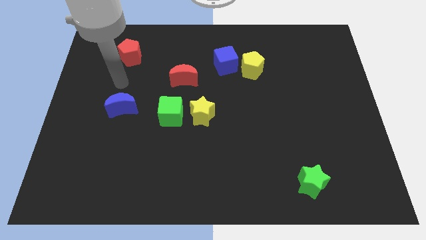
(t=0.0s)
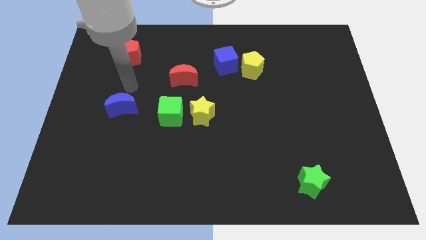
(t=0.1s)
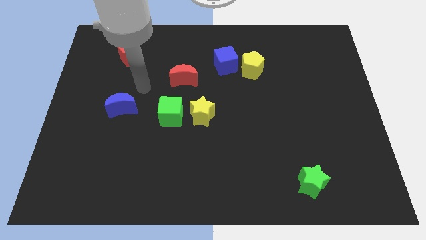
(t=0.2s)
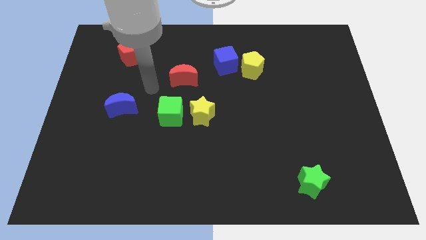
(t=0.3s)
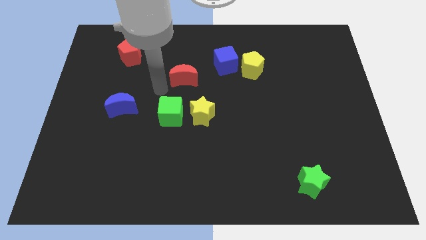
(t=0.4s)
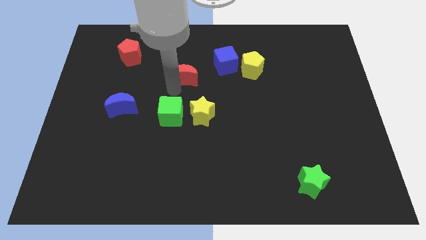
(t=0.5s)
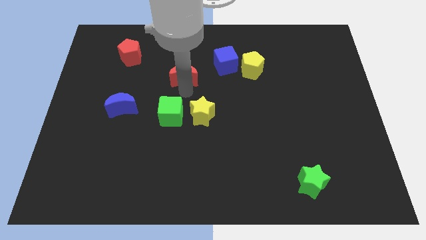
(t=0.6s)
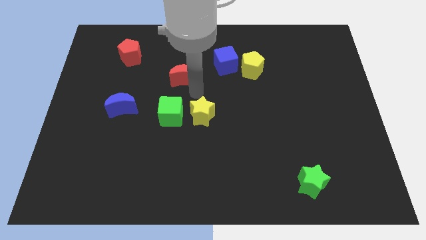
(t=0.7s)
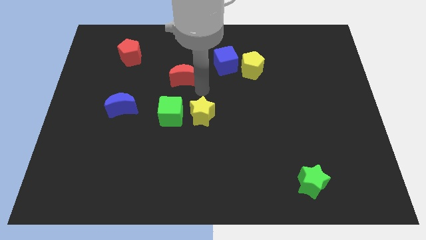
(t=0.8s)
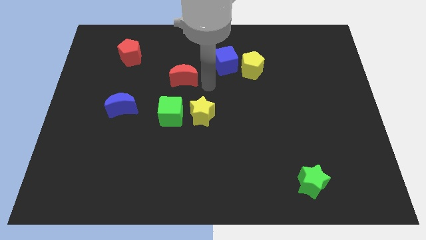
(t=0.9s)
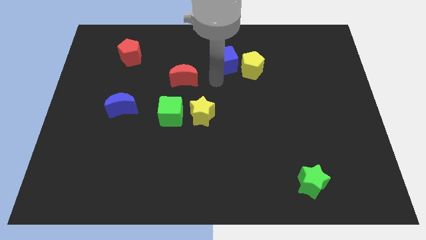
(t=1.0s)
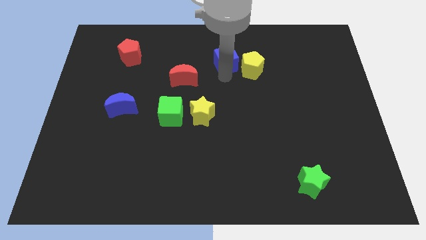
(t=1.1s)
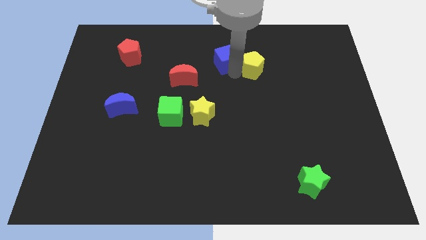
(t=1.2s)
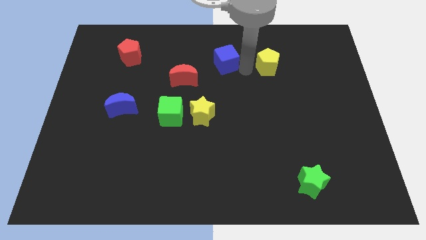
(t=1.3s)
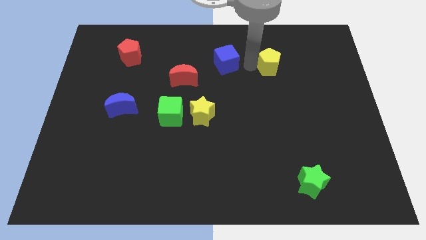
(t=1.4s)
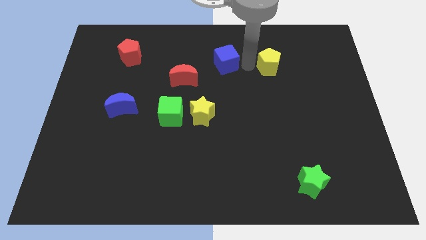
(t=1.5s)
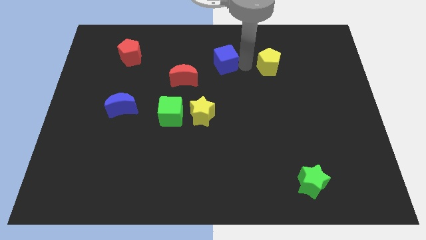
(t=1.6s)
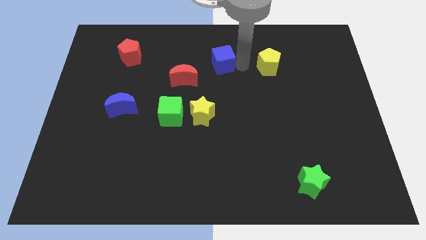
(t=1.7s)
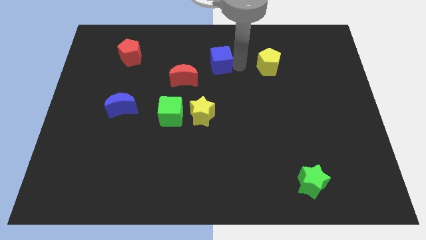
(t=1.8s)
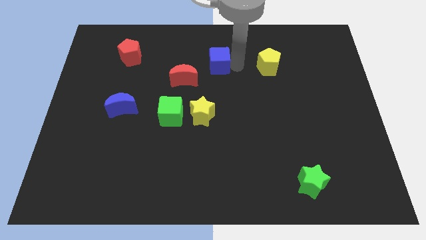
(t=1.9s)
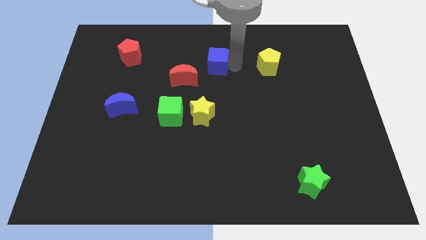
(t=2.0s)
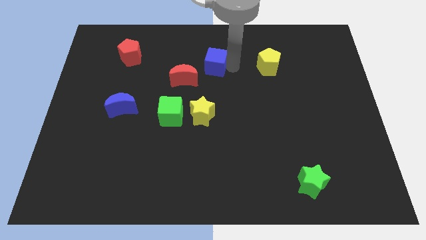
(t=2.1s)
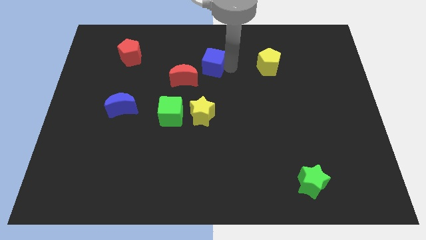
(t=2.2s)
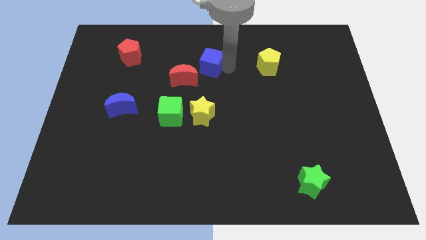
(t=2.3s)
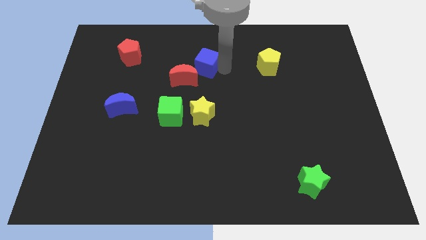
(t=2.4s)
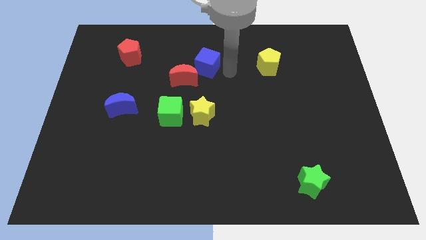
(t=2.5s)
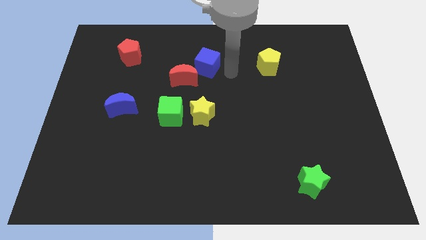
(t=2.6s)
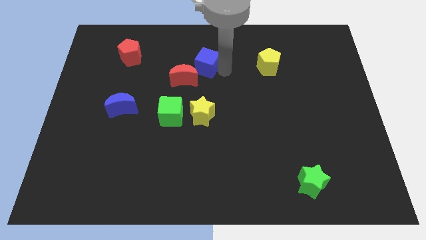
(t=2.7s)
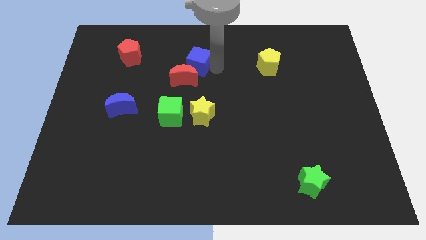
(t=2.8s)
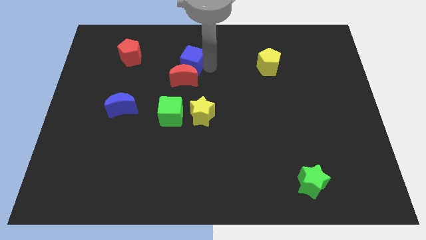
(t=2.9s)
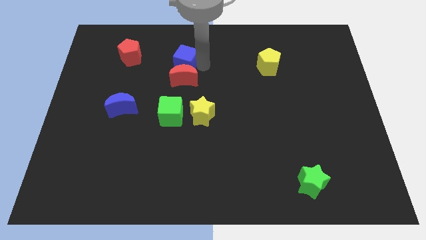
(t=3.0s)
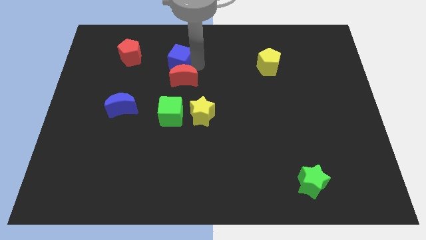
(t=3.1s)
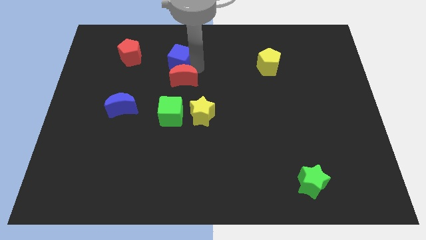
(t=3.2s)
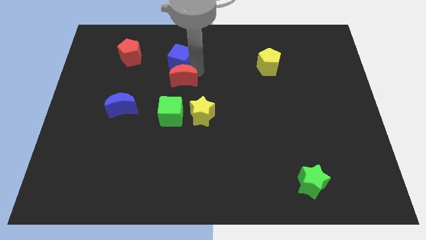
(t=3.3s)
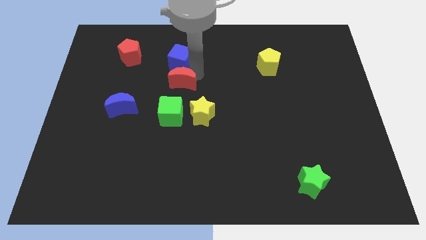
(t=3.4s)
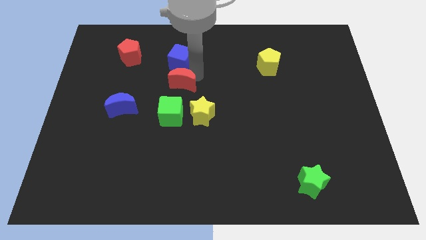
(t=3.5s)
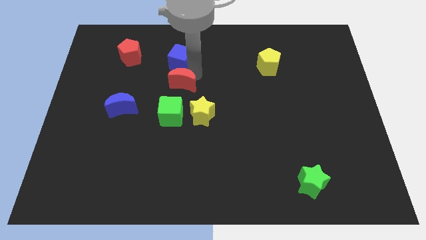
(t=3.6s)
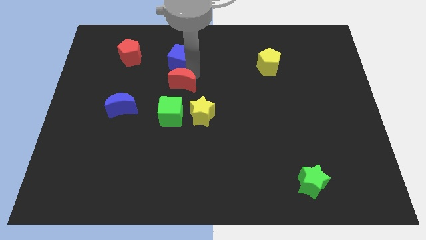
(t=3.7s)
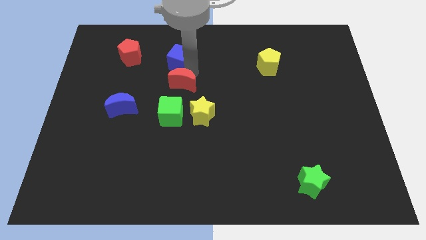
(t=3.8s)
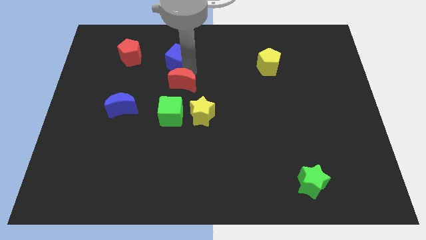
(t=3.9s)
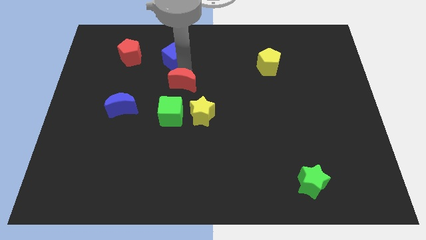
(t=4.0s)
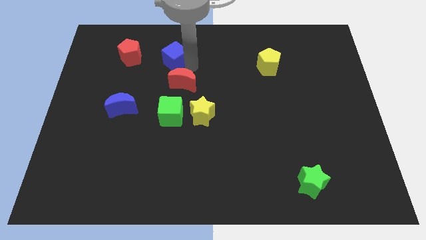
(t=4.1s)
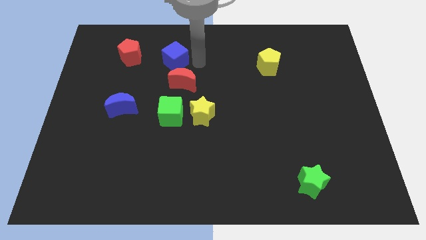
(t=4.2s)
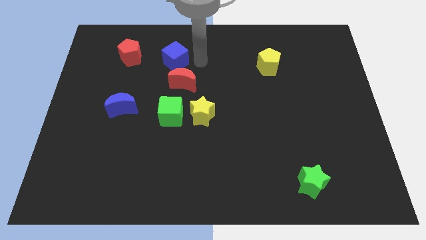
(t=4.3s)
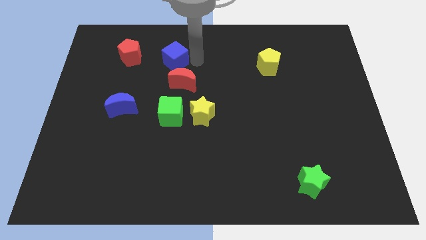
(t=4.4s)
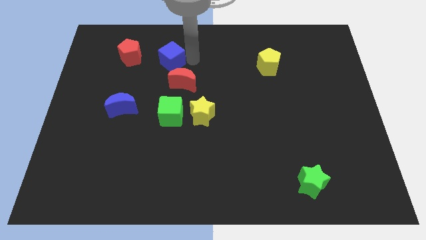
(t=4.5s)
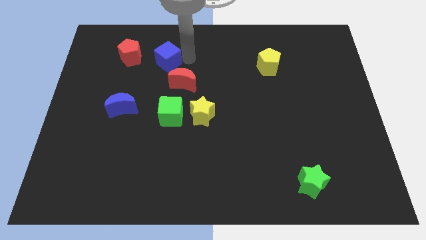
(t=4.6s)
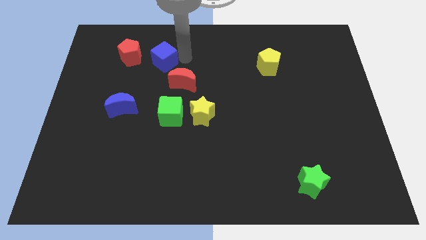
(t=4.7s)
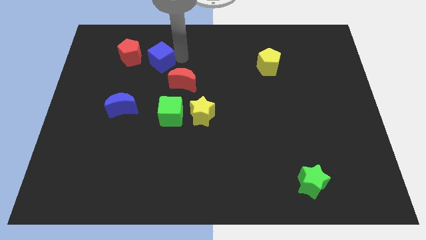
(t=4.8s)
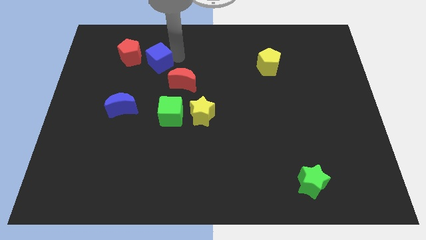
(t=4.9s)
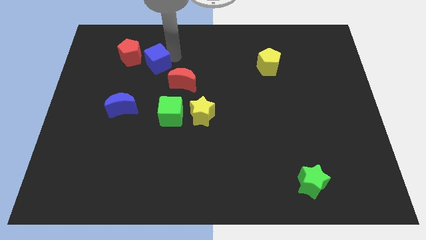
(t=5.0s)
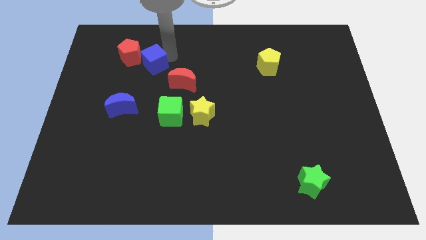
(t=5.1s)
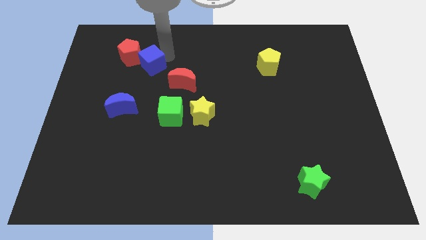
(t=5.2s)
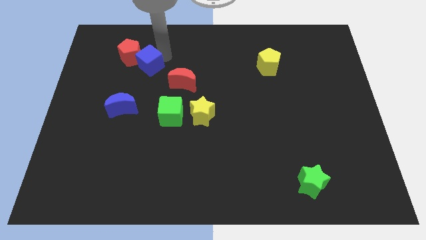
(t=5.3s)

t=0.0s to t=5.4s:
move the blue cube close to the red pentagon

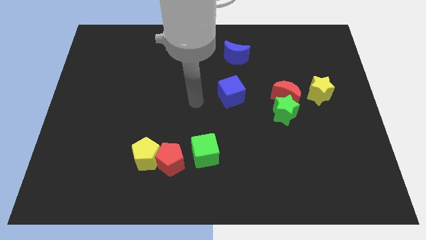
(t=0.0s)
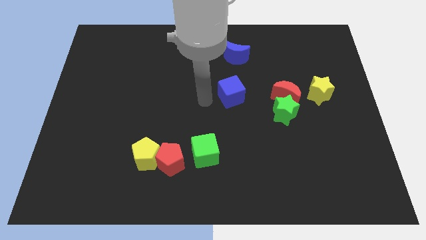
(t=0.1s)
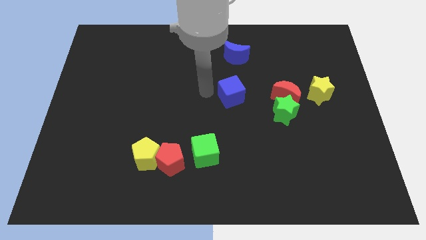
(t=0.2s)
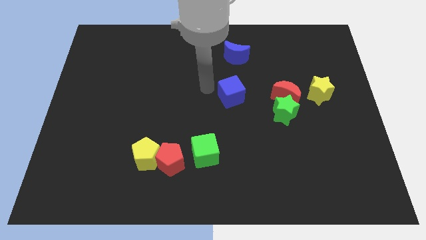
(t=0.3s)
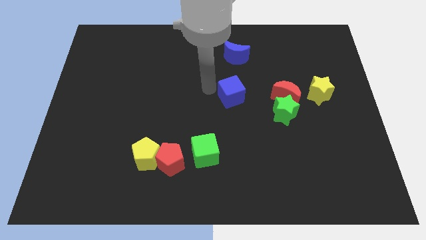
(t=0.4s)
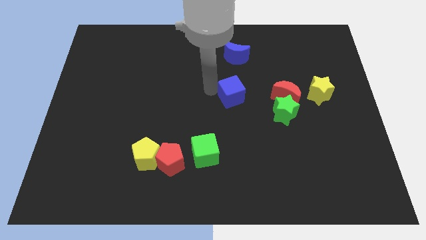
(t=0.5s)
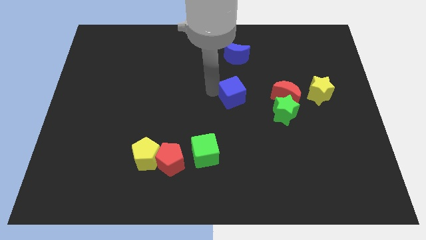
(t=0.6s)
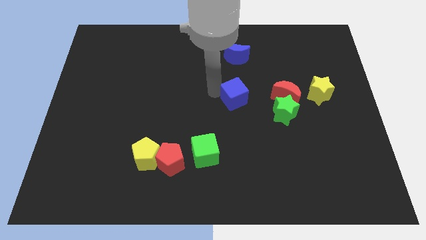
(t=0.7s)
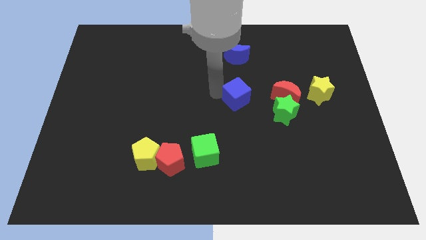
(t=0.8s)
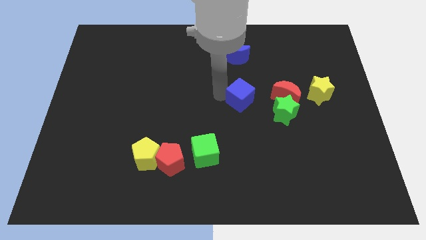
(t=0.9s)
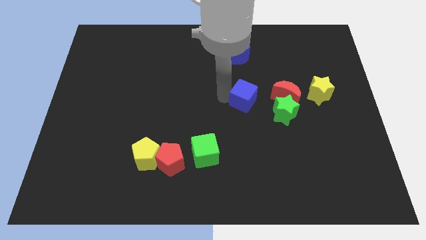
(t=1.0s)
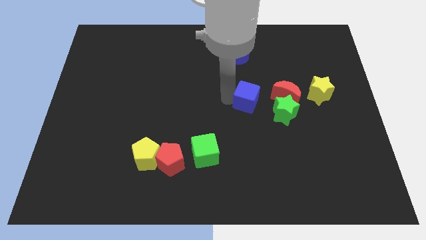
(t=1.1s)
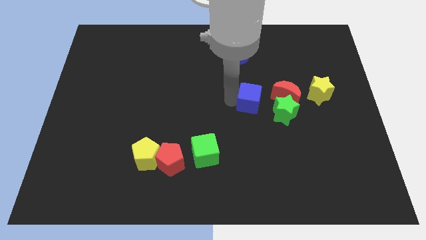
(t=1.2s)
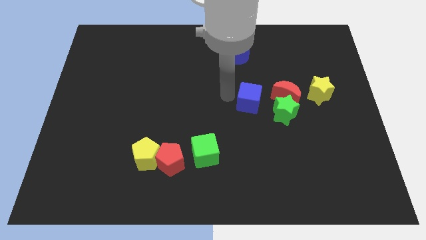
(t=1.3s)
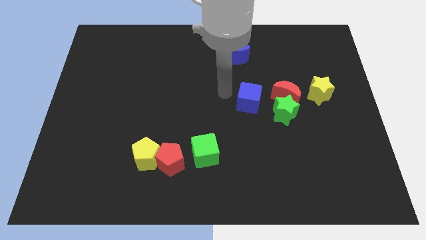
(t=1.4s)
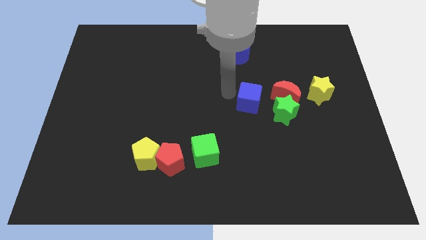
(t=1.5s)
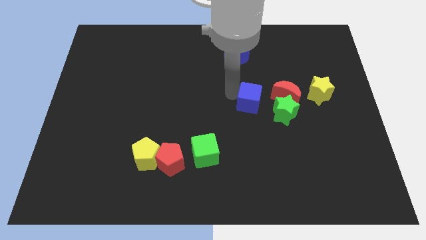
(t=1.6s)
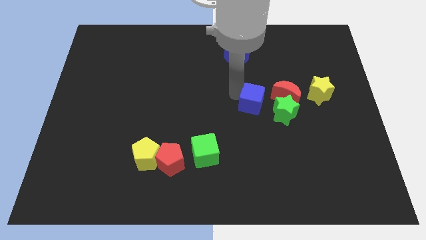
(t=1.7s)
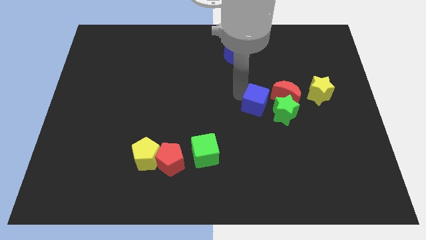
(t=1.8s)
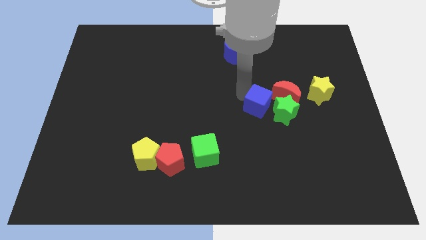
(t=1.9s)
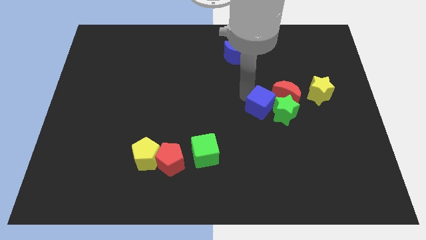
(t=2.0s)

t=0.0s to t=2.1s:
move the blue cube towards the green star
